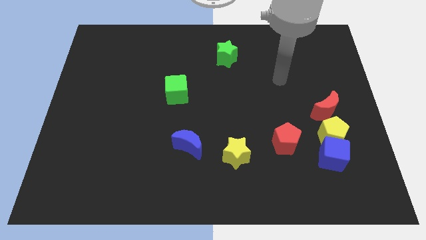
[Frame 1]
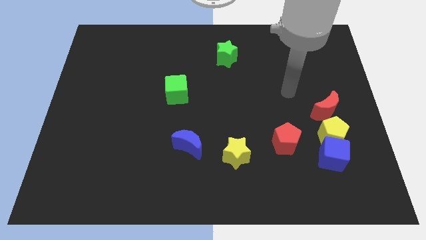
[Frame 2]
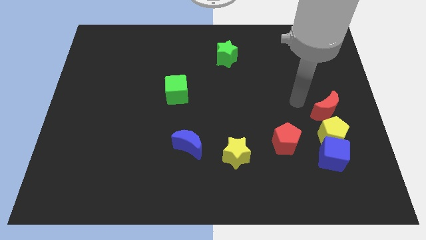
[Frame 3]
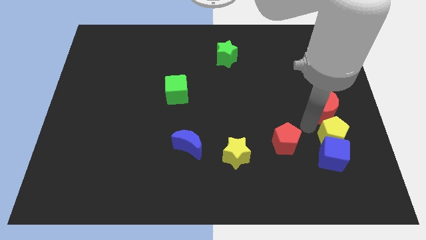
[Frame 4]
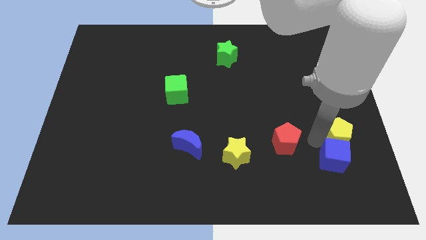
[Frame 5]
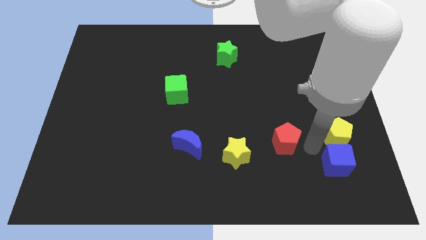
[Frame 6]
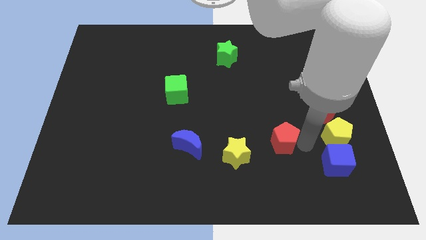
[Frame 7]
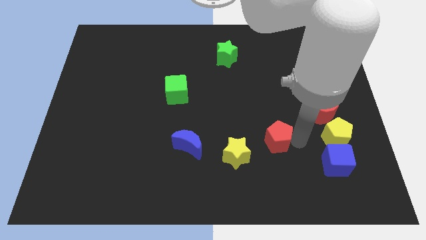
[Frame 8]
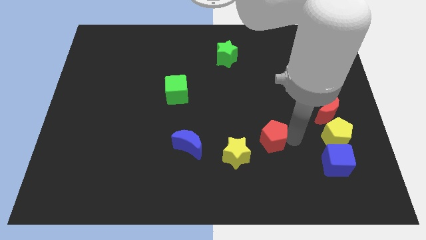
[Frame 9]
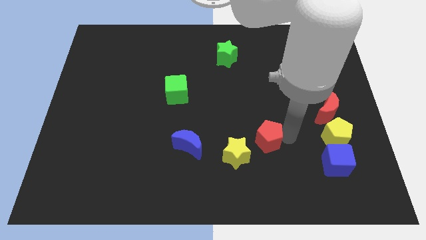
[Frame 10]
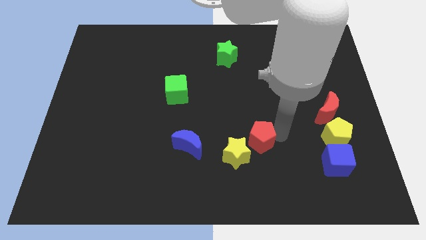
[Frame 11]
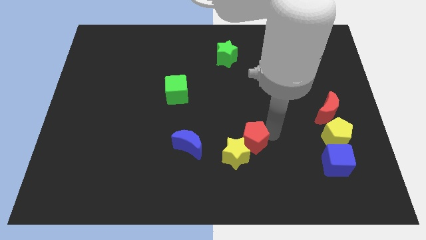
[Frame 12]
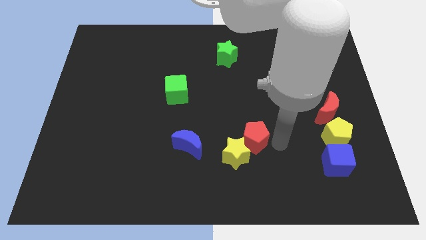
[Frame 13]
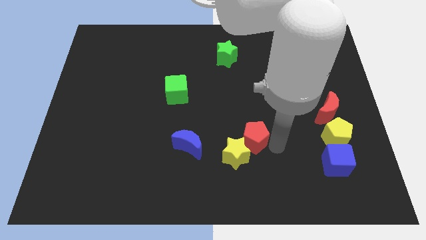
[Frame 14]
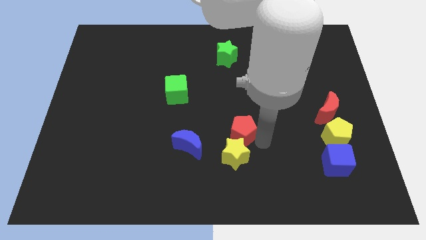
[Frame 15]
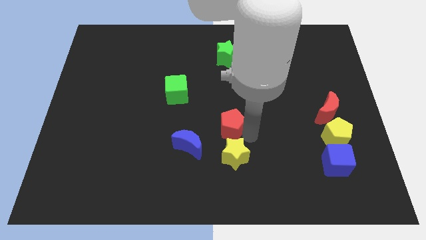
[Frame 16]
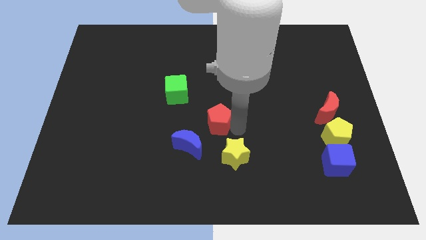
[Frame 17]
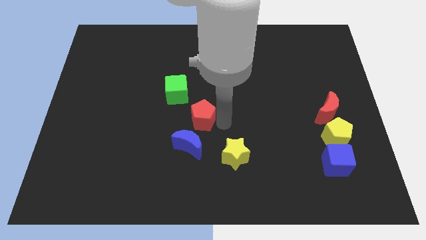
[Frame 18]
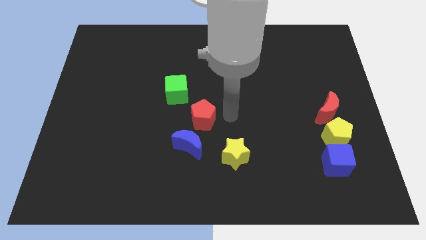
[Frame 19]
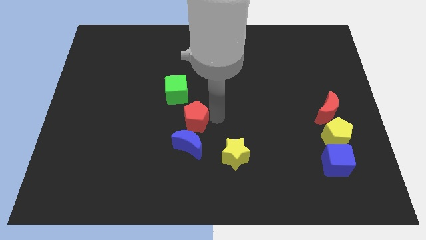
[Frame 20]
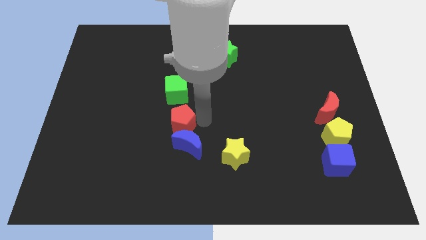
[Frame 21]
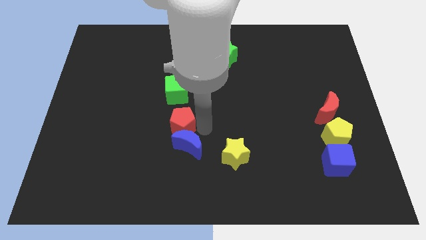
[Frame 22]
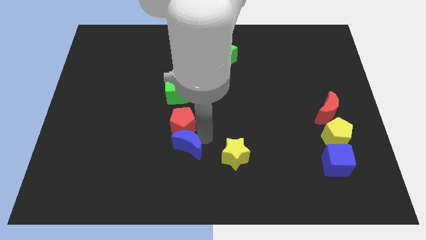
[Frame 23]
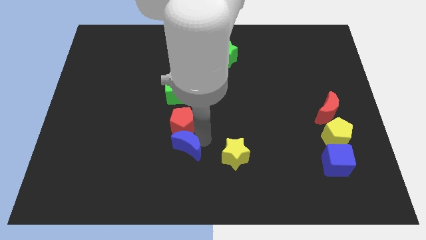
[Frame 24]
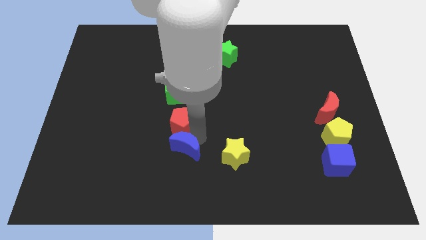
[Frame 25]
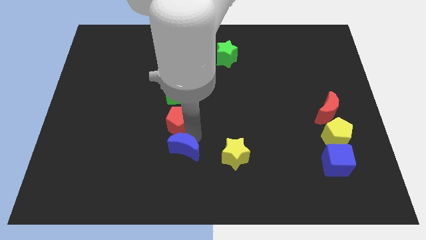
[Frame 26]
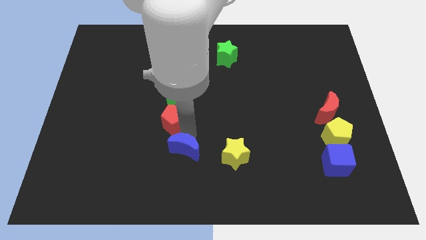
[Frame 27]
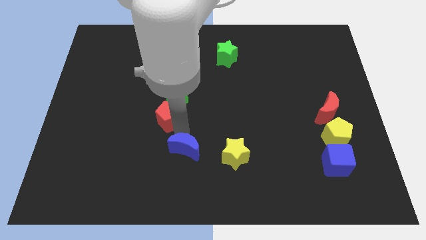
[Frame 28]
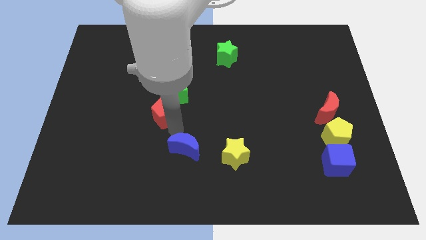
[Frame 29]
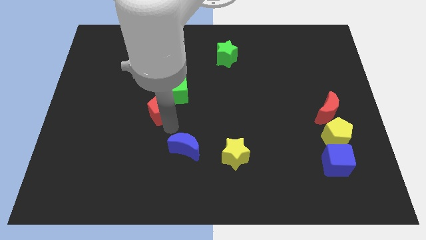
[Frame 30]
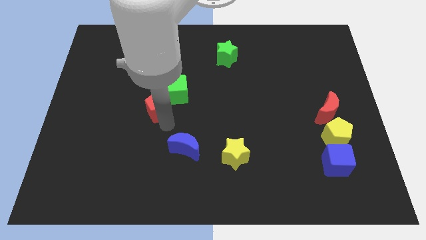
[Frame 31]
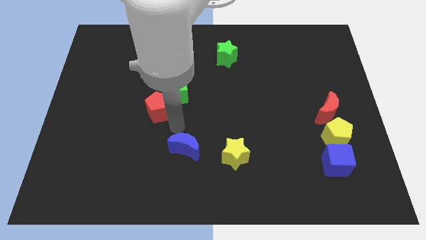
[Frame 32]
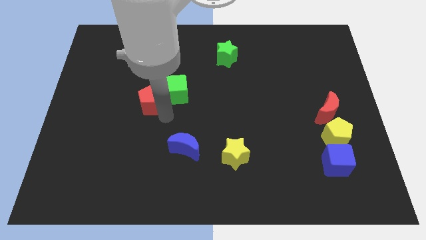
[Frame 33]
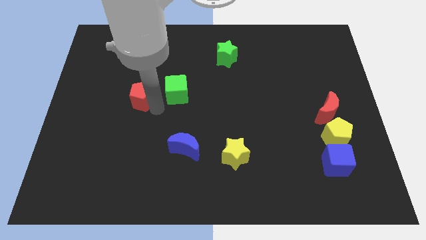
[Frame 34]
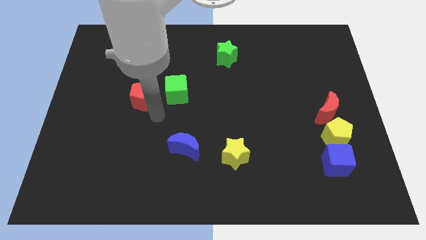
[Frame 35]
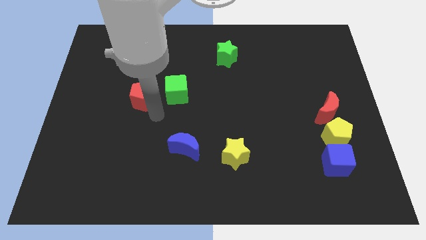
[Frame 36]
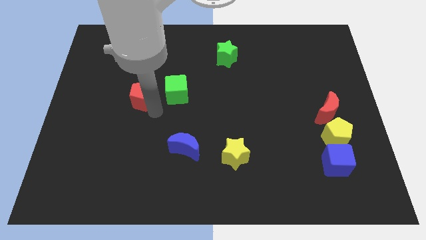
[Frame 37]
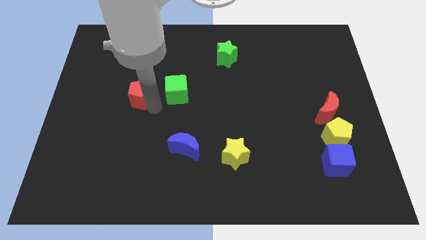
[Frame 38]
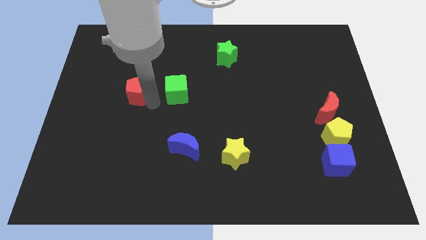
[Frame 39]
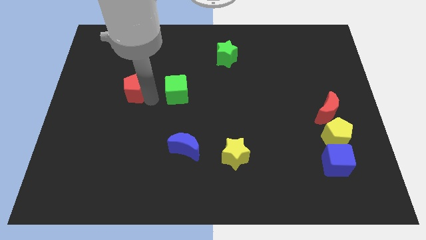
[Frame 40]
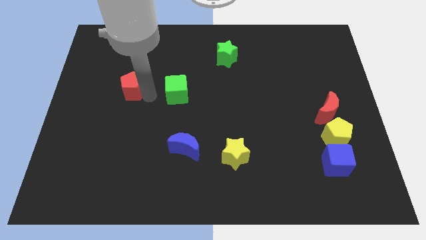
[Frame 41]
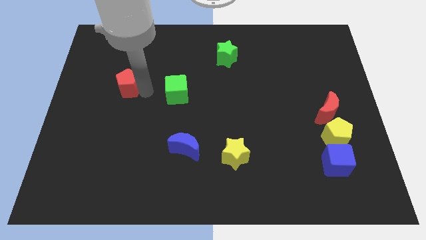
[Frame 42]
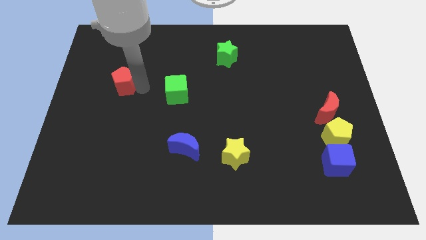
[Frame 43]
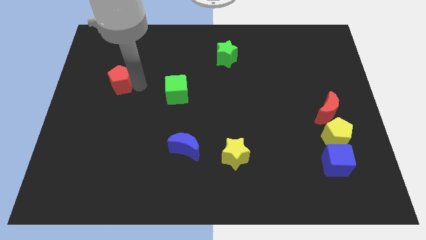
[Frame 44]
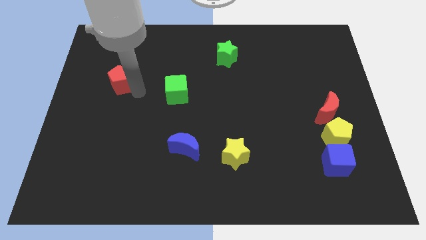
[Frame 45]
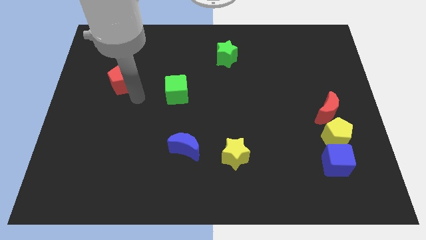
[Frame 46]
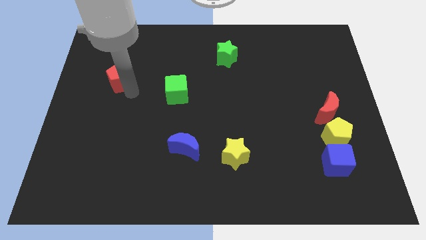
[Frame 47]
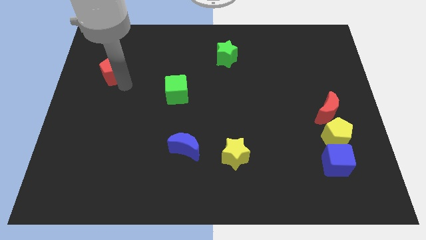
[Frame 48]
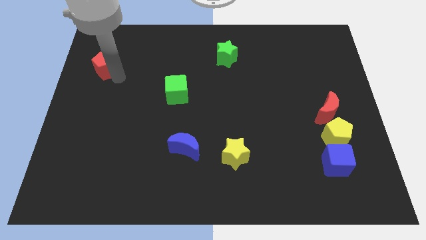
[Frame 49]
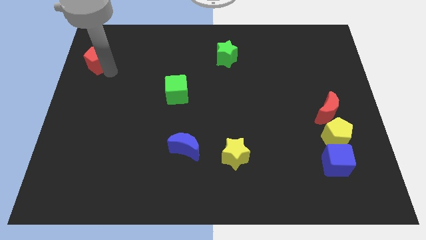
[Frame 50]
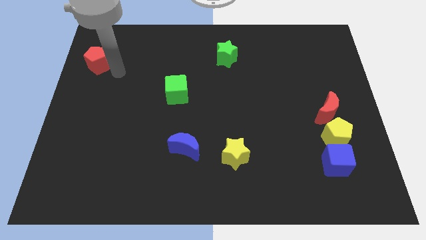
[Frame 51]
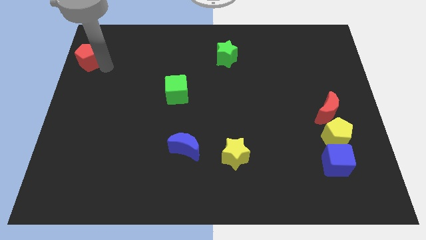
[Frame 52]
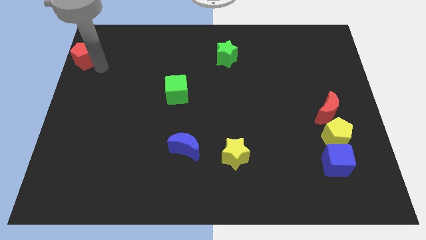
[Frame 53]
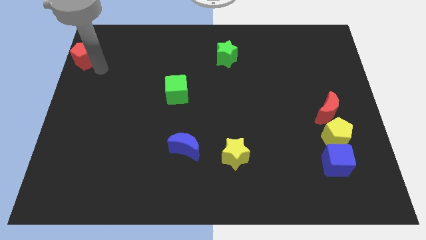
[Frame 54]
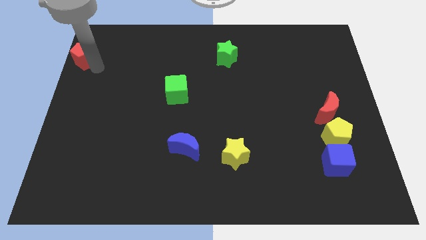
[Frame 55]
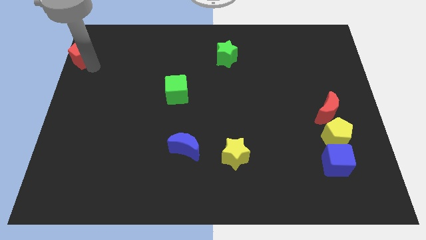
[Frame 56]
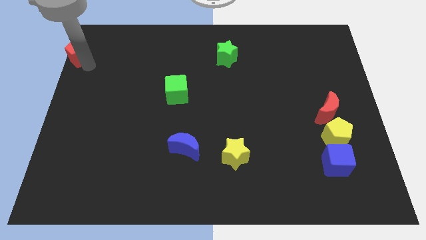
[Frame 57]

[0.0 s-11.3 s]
move the red pentagon to the top left corner
